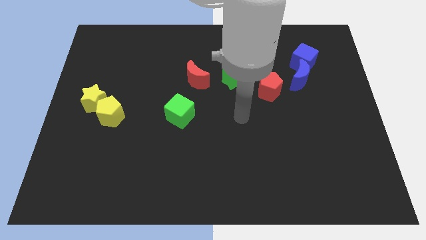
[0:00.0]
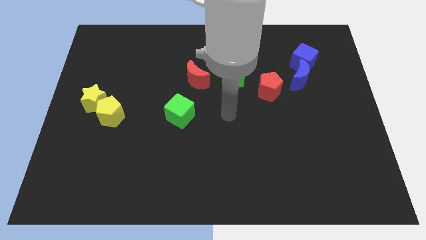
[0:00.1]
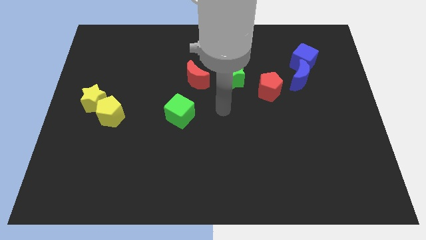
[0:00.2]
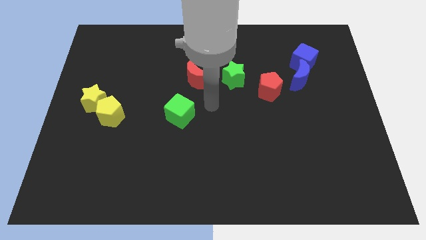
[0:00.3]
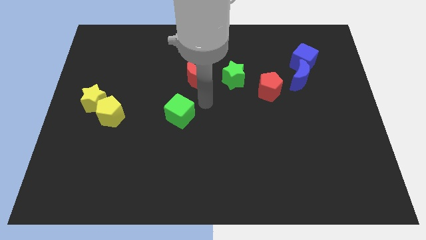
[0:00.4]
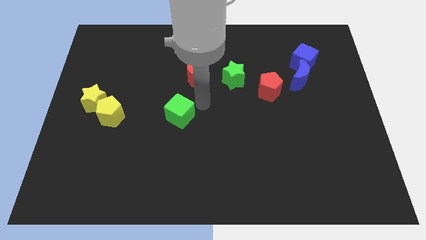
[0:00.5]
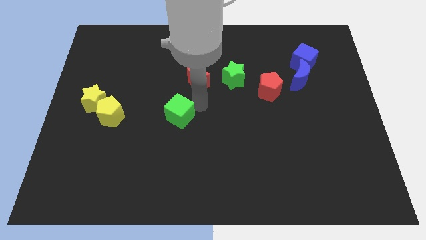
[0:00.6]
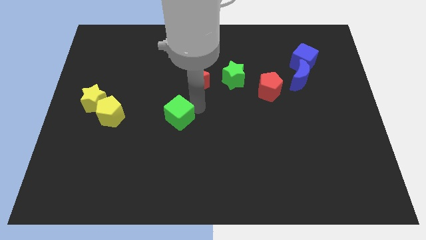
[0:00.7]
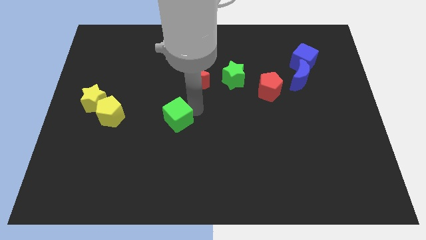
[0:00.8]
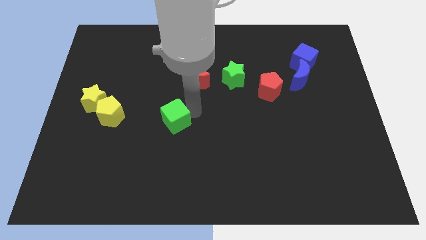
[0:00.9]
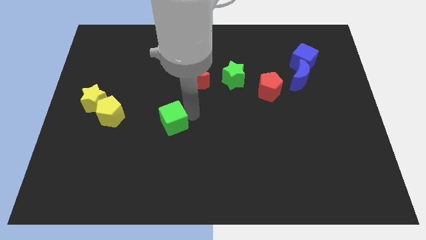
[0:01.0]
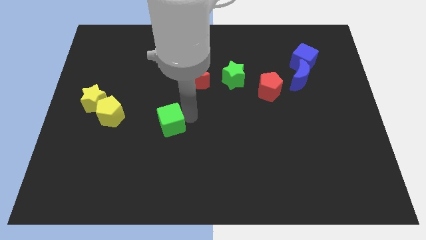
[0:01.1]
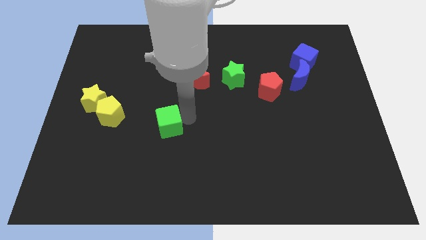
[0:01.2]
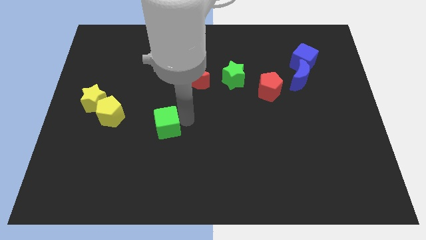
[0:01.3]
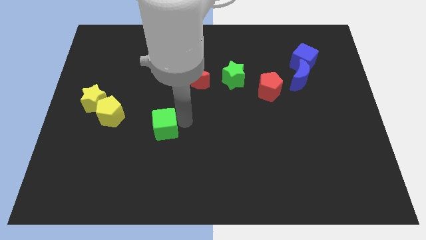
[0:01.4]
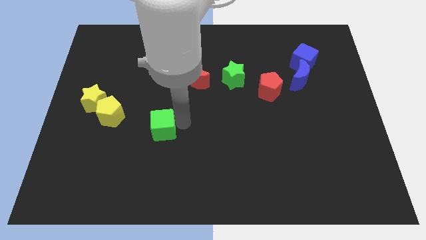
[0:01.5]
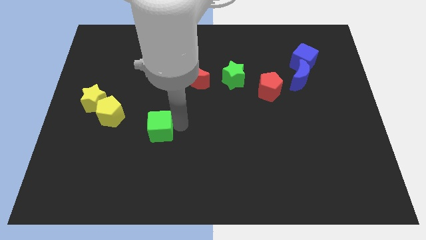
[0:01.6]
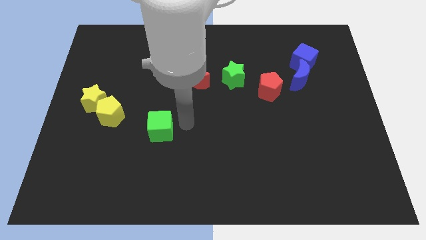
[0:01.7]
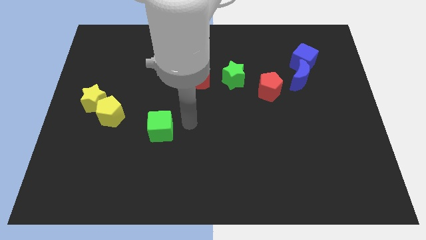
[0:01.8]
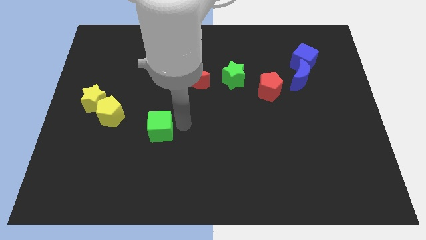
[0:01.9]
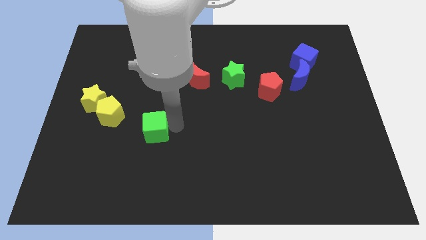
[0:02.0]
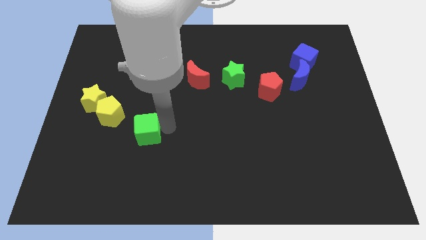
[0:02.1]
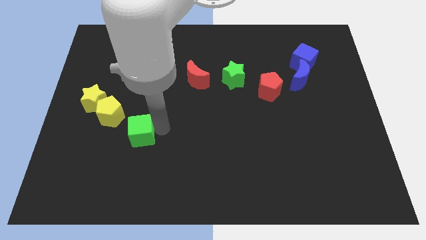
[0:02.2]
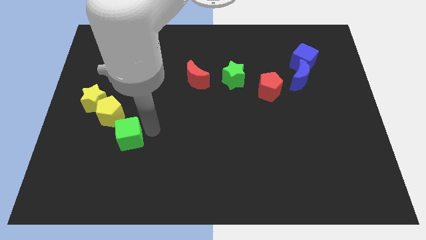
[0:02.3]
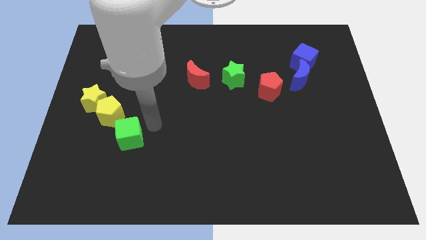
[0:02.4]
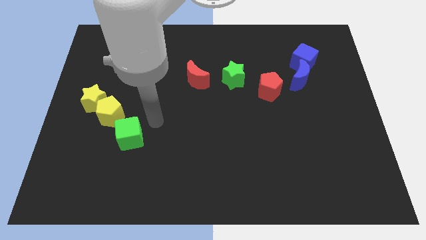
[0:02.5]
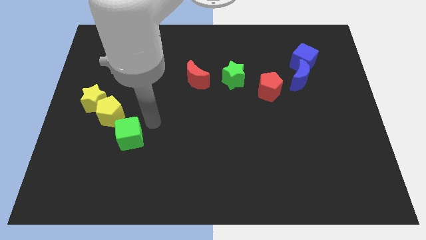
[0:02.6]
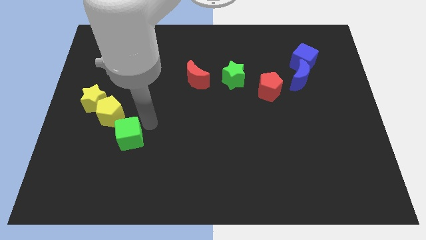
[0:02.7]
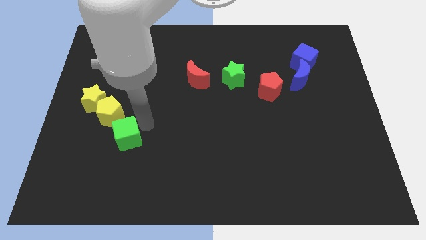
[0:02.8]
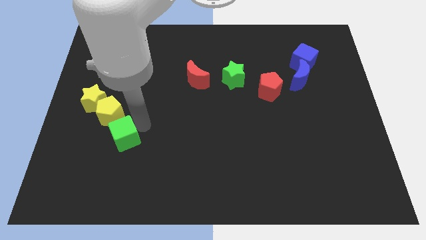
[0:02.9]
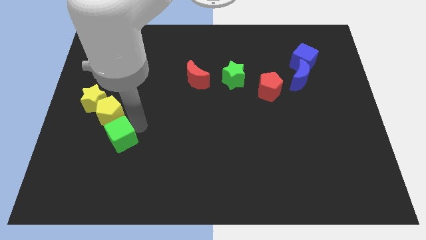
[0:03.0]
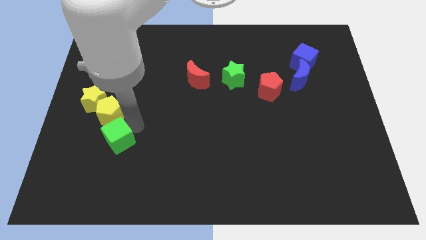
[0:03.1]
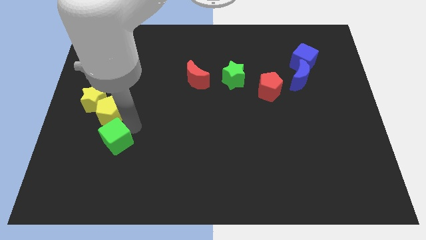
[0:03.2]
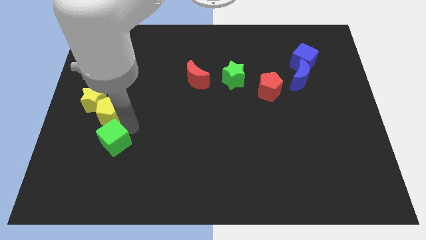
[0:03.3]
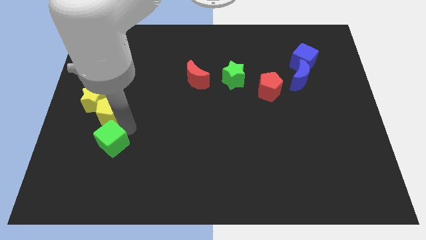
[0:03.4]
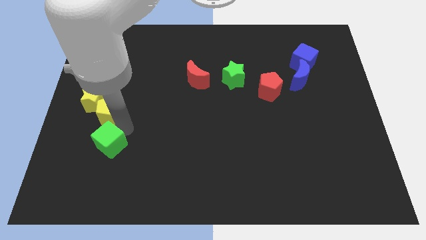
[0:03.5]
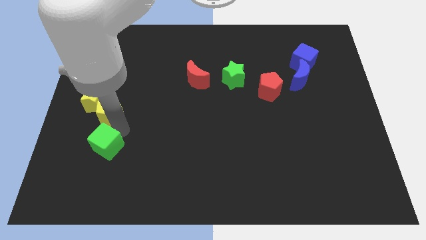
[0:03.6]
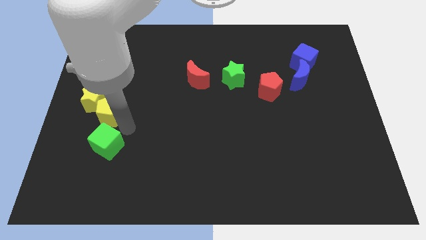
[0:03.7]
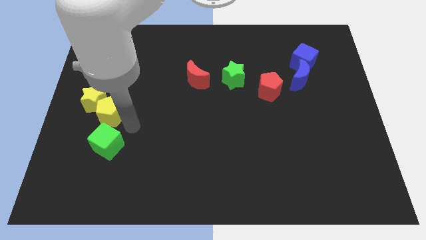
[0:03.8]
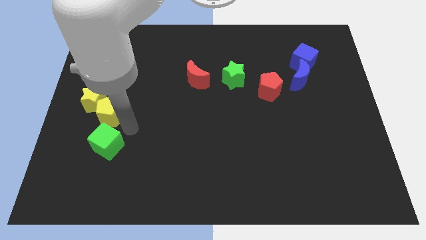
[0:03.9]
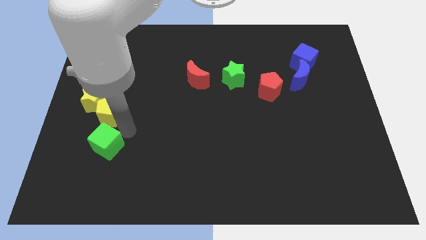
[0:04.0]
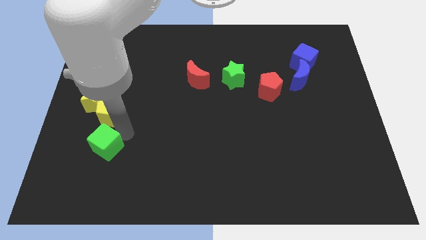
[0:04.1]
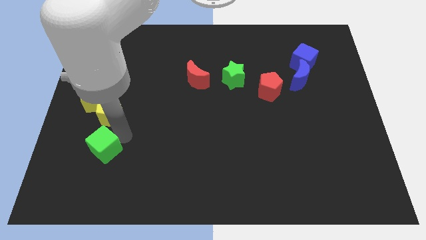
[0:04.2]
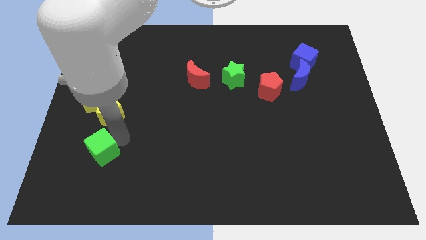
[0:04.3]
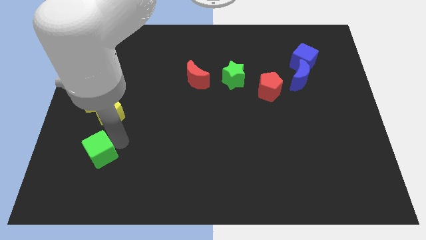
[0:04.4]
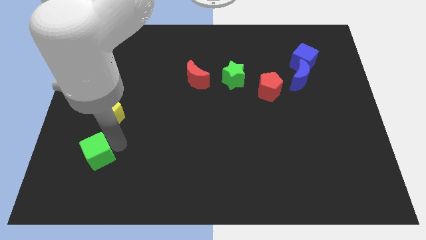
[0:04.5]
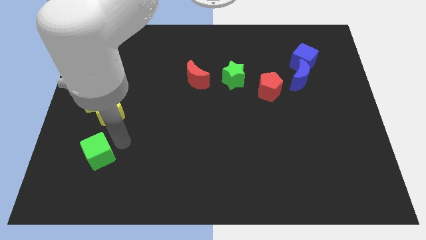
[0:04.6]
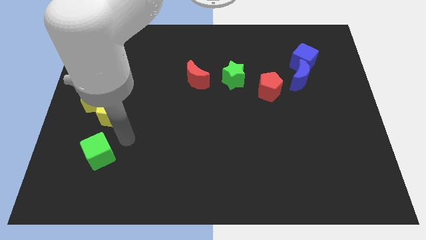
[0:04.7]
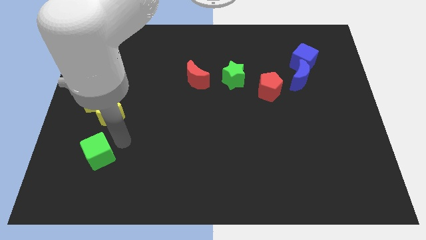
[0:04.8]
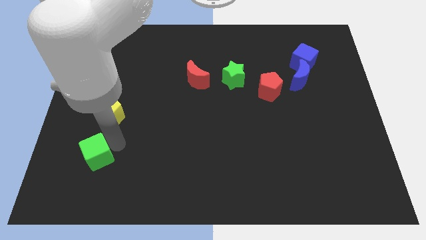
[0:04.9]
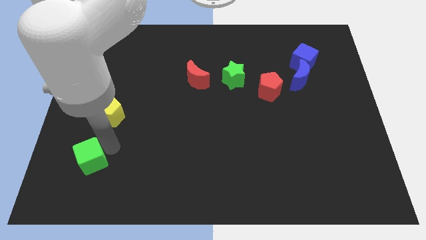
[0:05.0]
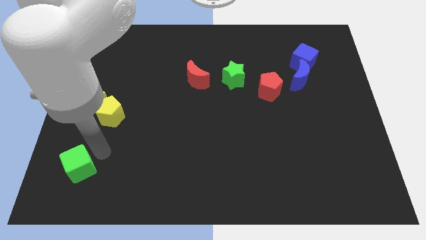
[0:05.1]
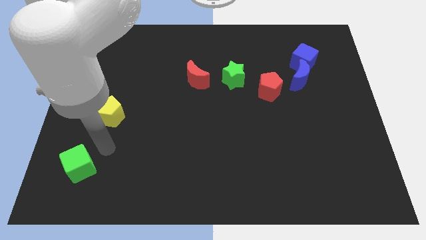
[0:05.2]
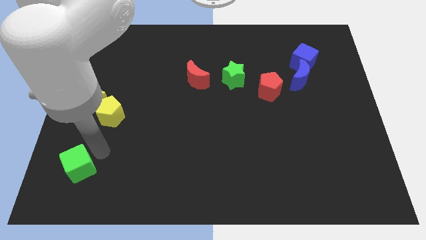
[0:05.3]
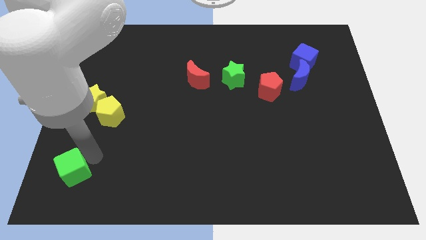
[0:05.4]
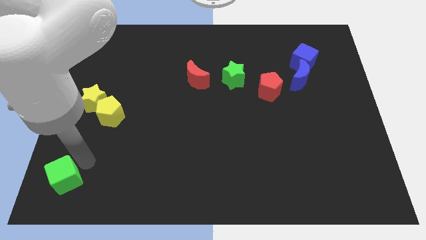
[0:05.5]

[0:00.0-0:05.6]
push the green cube to the bottom left of the board
